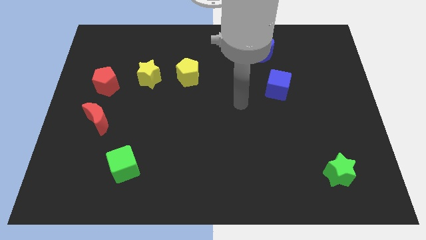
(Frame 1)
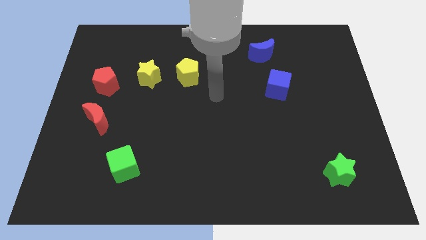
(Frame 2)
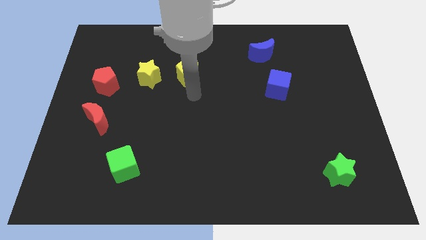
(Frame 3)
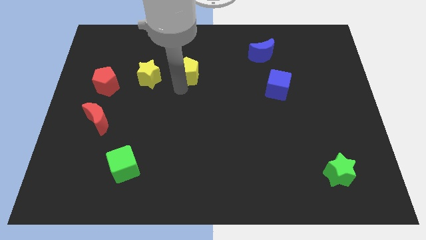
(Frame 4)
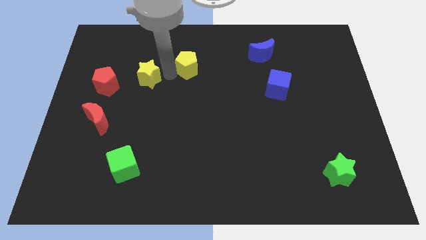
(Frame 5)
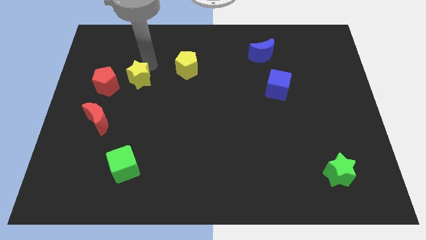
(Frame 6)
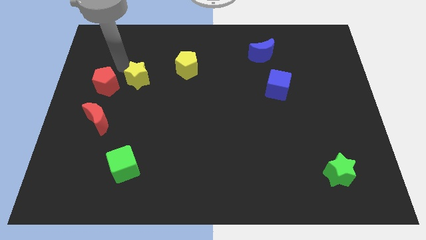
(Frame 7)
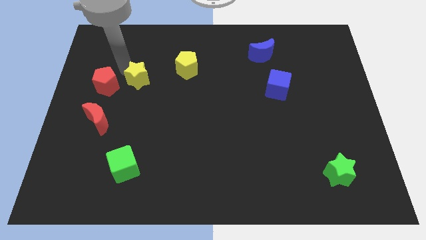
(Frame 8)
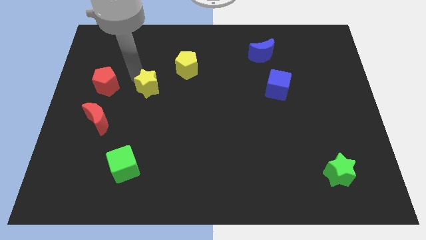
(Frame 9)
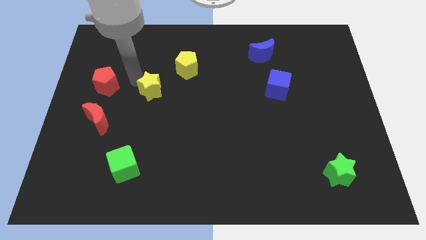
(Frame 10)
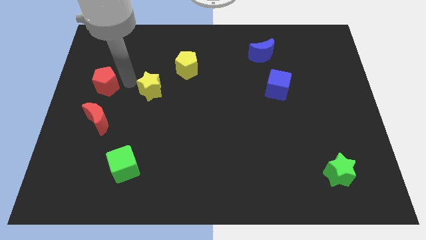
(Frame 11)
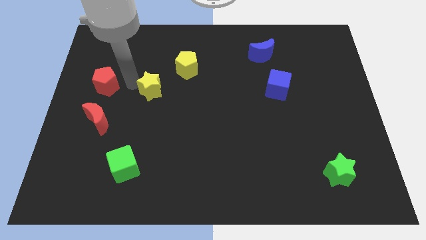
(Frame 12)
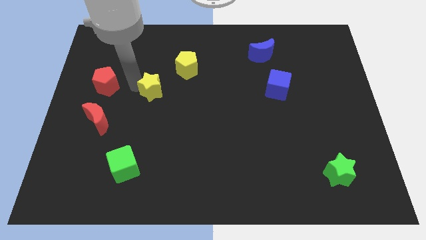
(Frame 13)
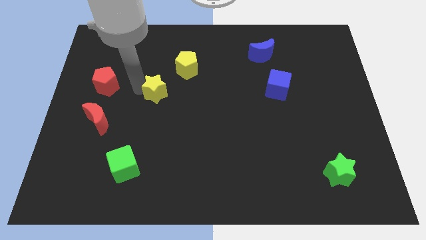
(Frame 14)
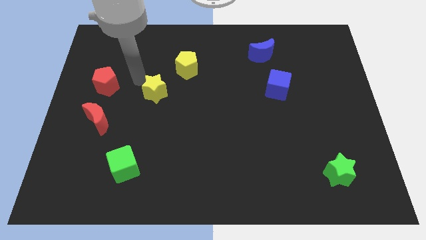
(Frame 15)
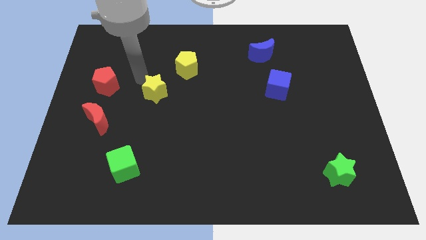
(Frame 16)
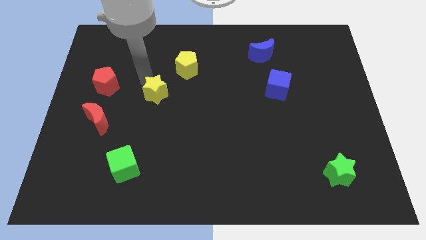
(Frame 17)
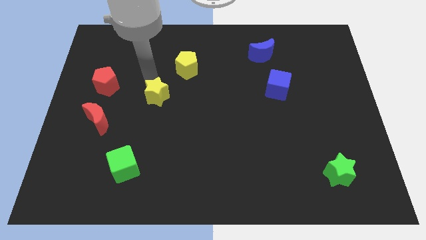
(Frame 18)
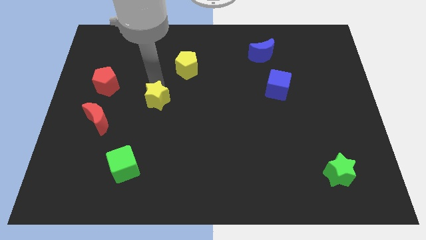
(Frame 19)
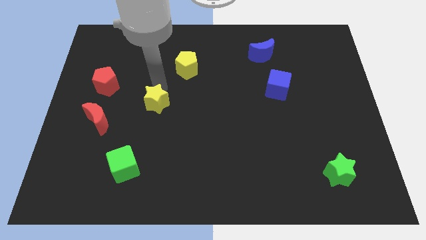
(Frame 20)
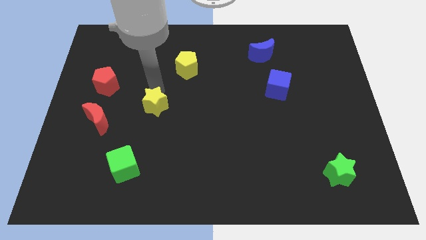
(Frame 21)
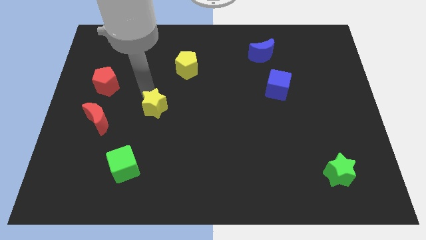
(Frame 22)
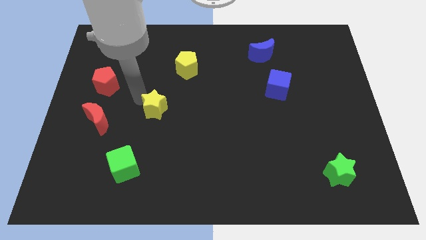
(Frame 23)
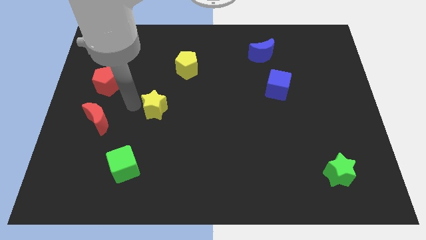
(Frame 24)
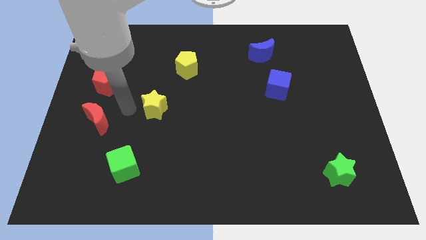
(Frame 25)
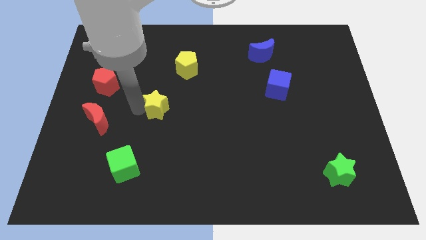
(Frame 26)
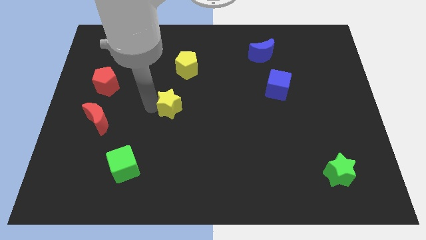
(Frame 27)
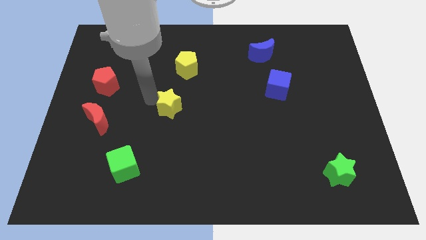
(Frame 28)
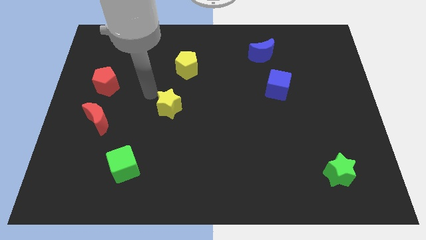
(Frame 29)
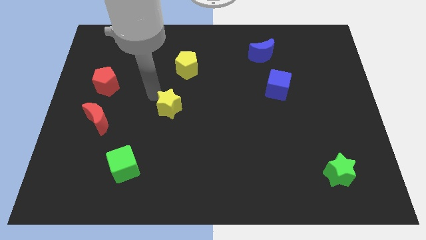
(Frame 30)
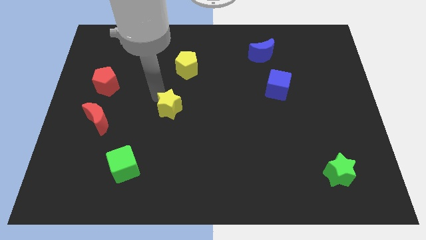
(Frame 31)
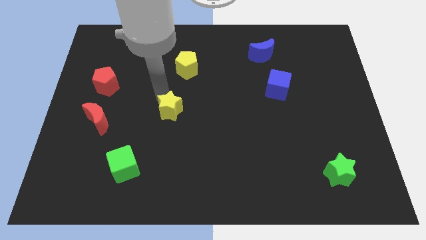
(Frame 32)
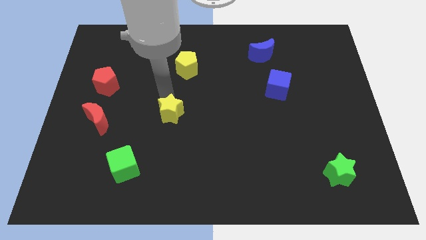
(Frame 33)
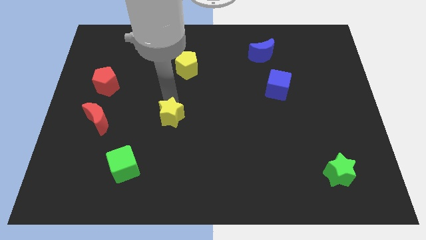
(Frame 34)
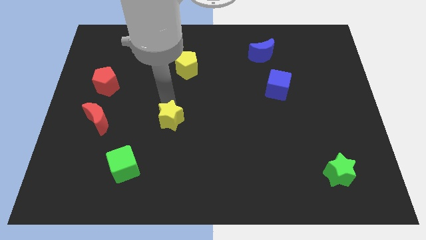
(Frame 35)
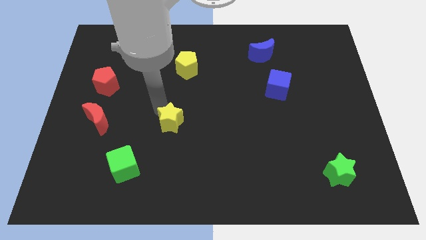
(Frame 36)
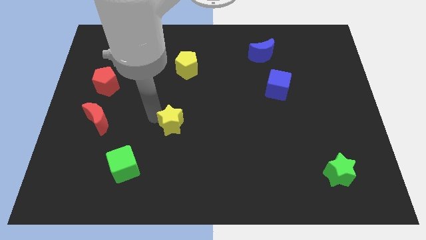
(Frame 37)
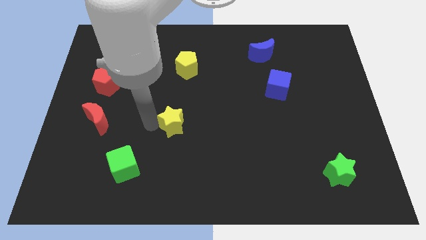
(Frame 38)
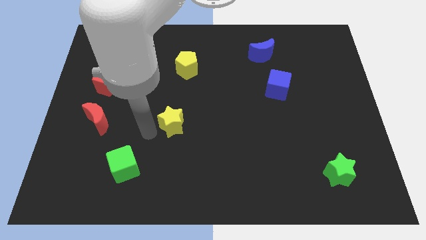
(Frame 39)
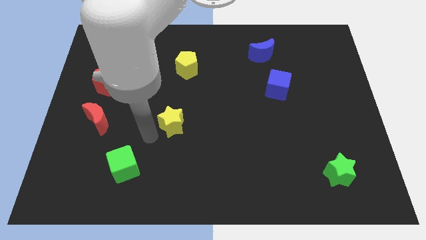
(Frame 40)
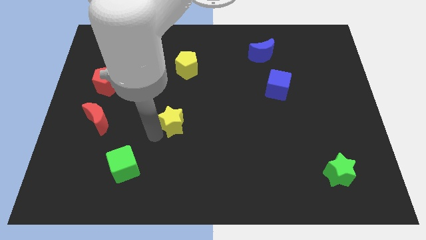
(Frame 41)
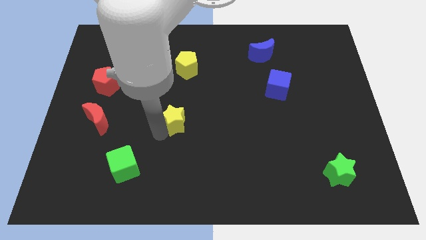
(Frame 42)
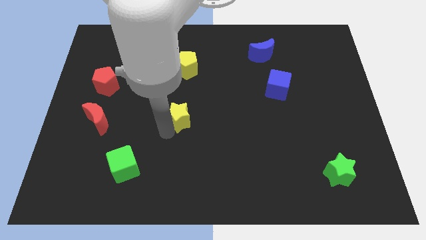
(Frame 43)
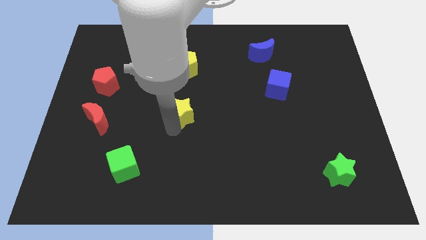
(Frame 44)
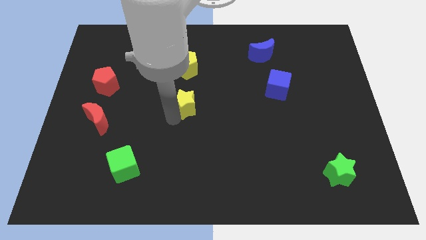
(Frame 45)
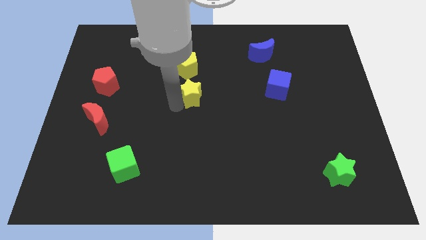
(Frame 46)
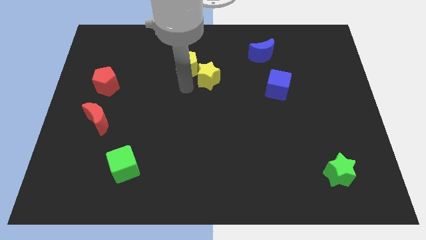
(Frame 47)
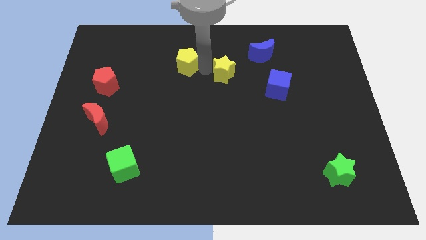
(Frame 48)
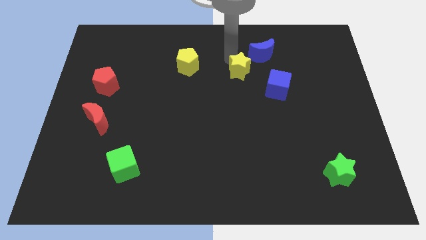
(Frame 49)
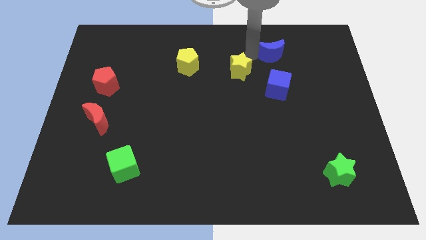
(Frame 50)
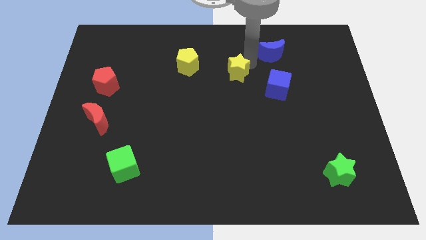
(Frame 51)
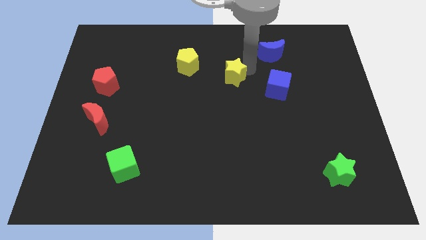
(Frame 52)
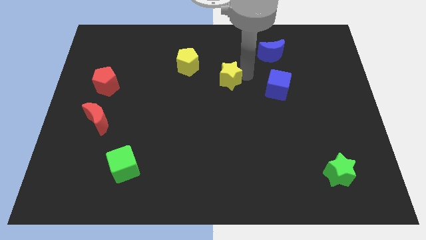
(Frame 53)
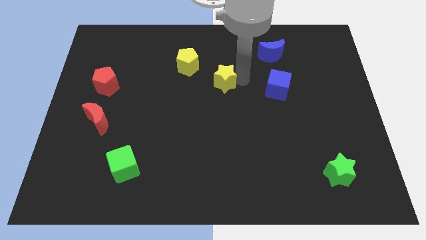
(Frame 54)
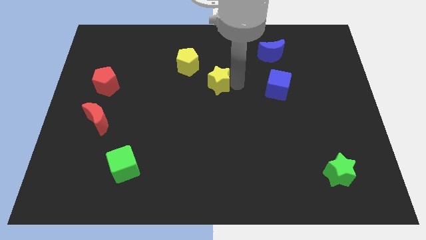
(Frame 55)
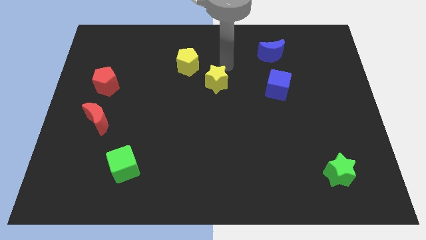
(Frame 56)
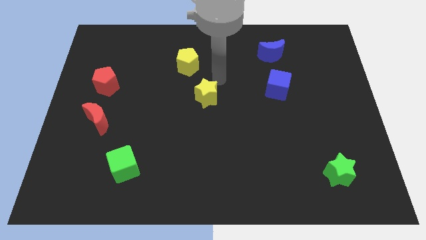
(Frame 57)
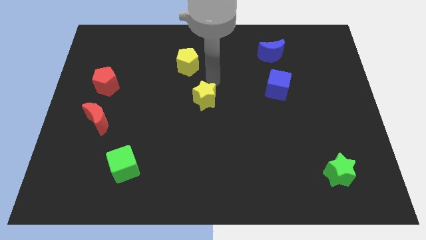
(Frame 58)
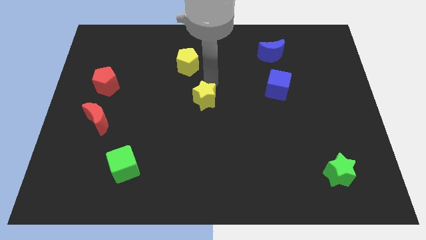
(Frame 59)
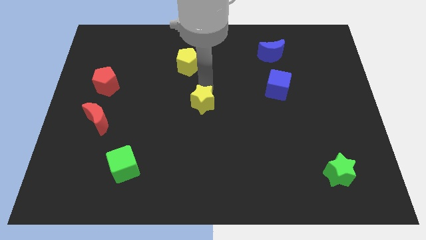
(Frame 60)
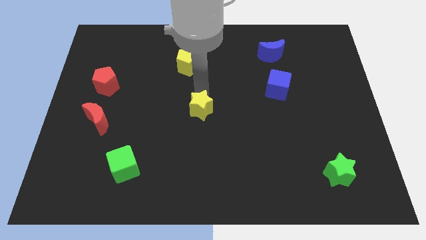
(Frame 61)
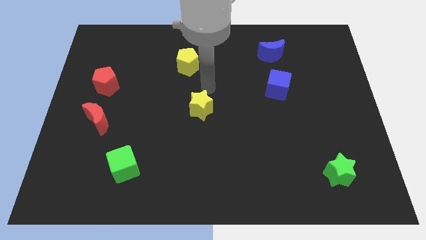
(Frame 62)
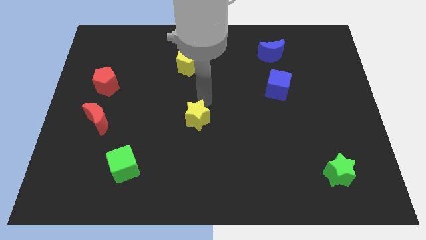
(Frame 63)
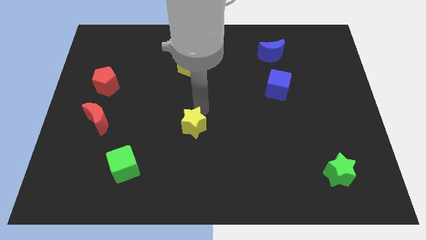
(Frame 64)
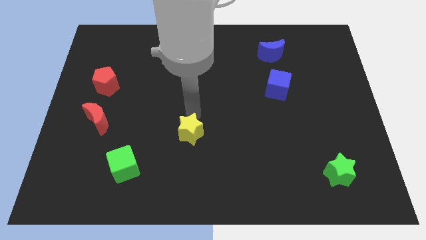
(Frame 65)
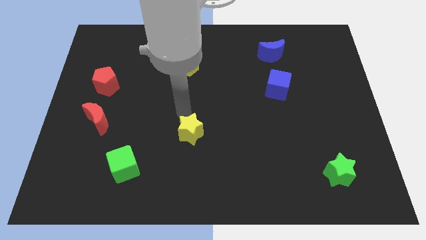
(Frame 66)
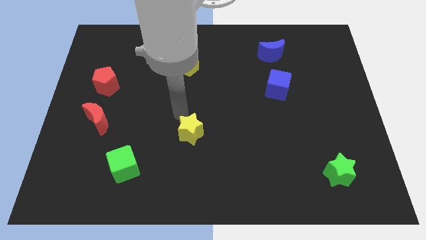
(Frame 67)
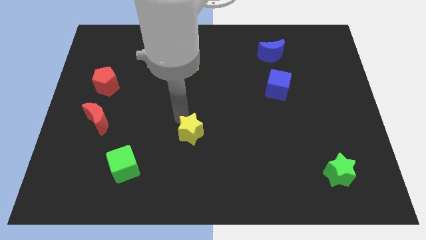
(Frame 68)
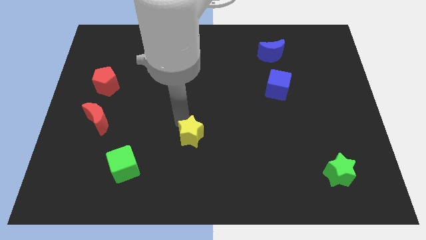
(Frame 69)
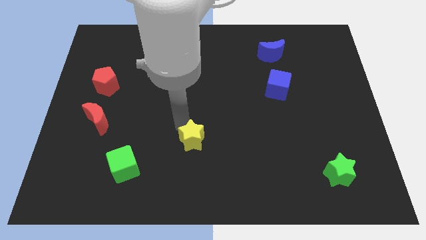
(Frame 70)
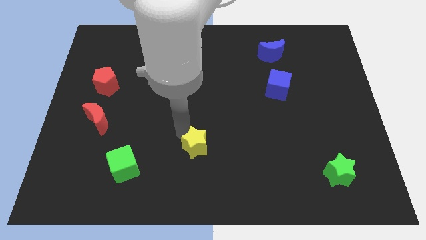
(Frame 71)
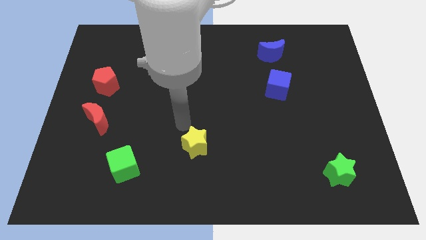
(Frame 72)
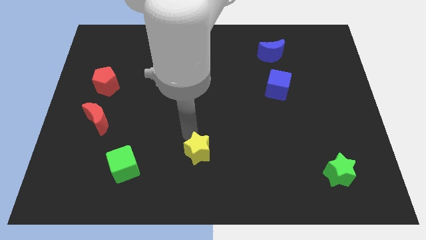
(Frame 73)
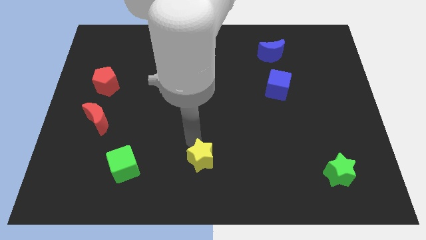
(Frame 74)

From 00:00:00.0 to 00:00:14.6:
slide the yellow star to the bottom side
